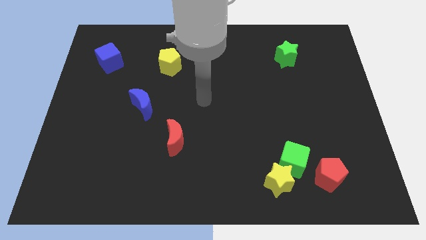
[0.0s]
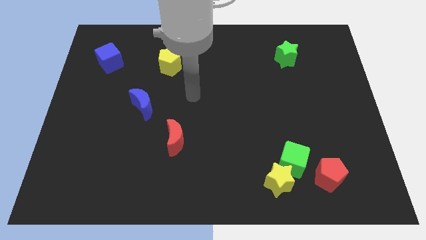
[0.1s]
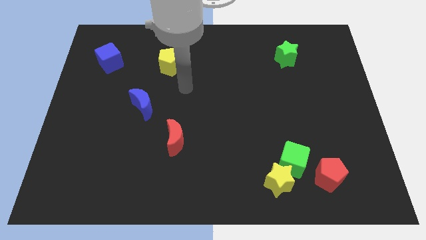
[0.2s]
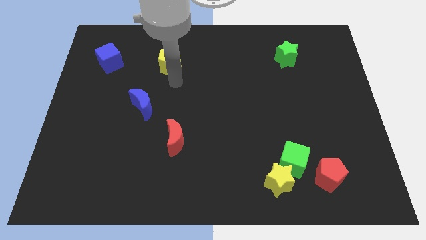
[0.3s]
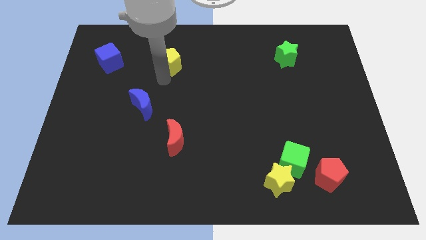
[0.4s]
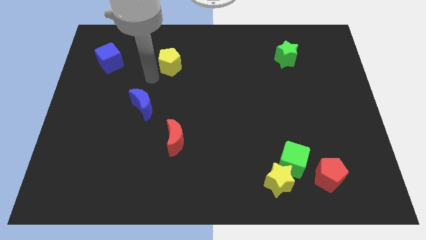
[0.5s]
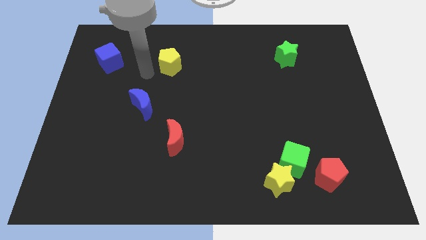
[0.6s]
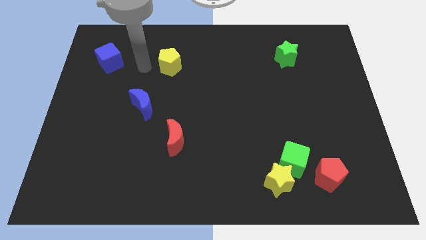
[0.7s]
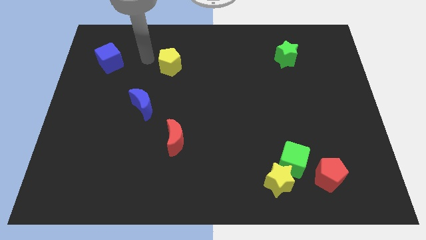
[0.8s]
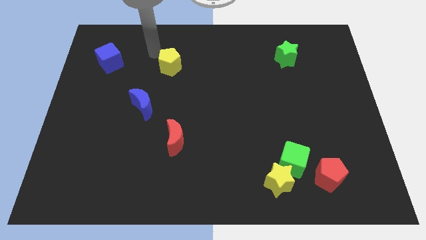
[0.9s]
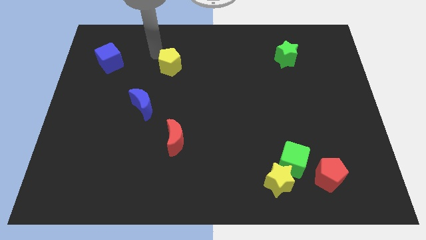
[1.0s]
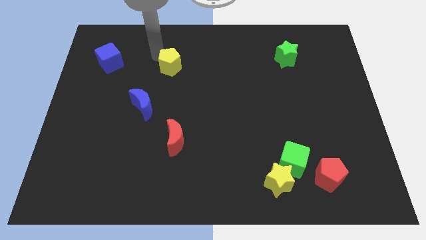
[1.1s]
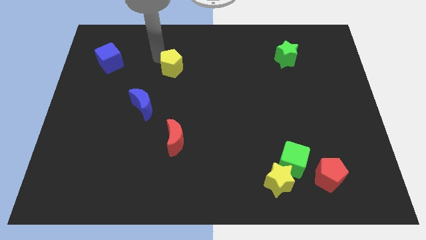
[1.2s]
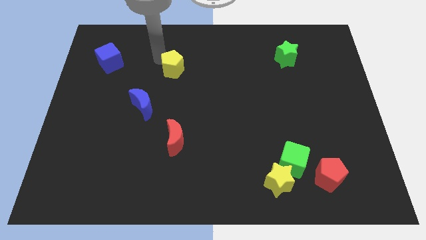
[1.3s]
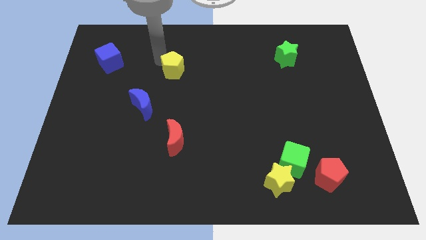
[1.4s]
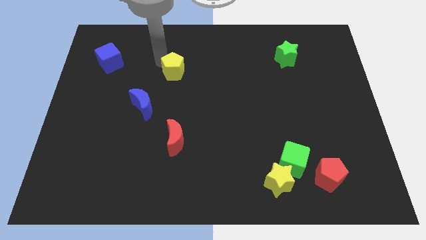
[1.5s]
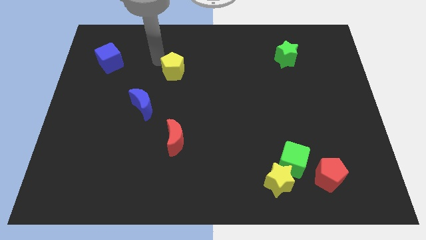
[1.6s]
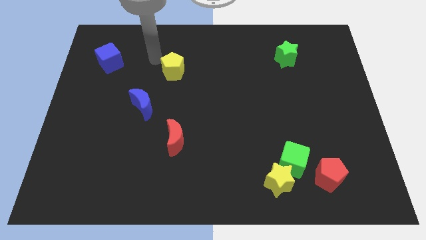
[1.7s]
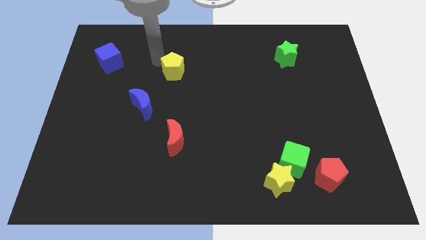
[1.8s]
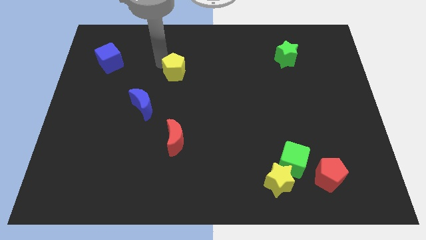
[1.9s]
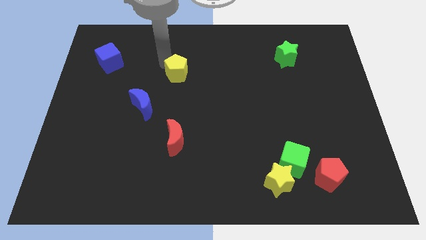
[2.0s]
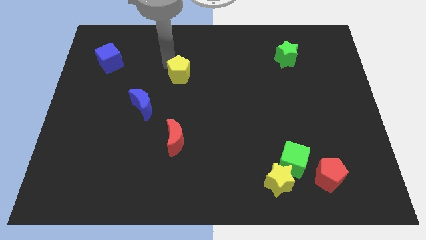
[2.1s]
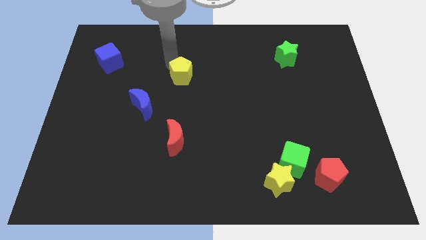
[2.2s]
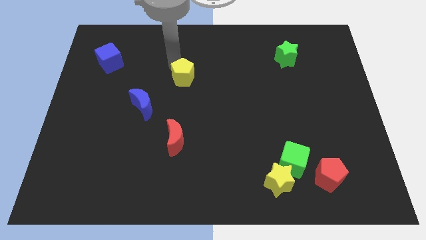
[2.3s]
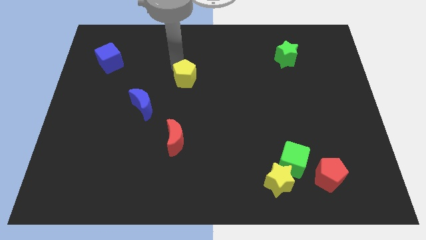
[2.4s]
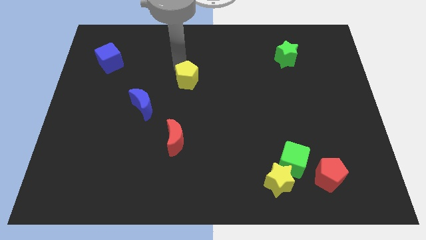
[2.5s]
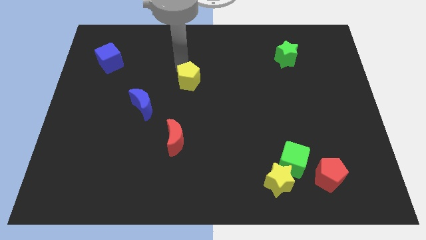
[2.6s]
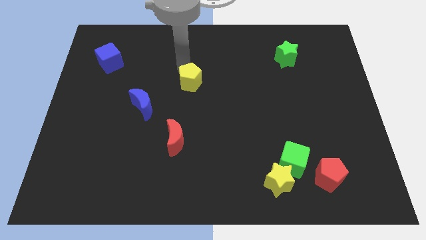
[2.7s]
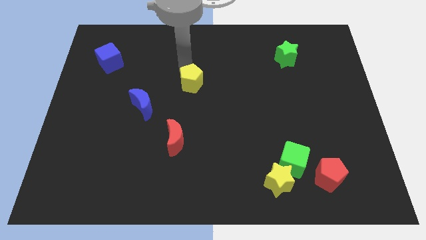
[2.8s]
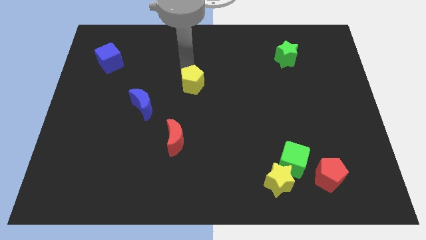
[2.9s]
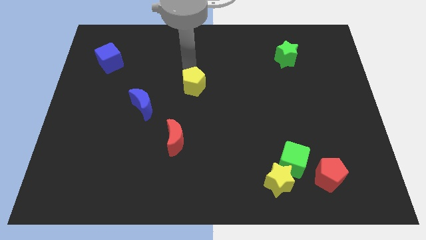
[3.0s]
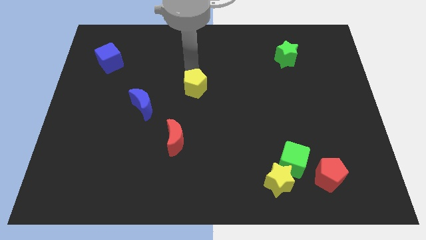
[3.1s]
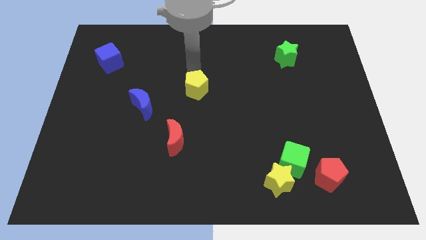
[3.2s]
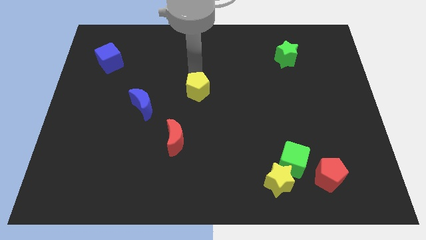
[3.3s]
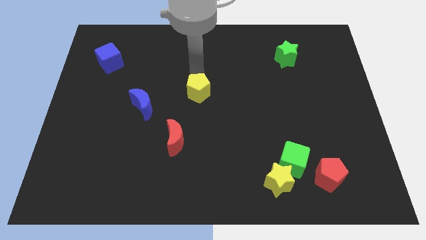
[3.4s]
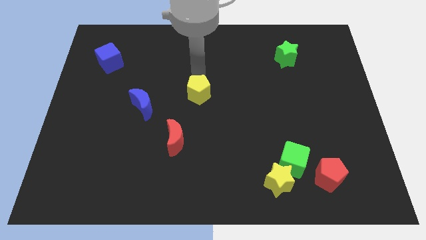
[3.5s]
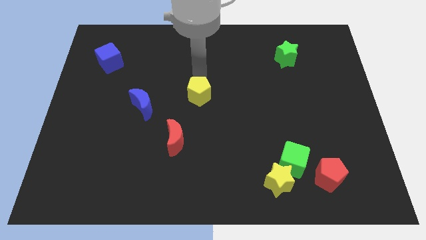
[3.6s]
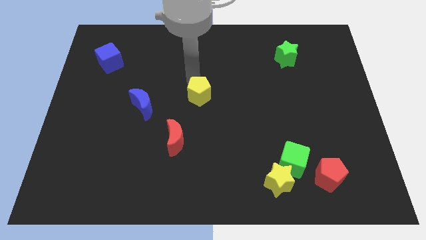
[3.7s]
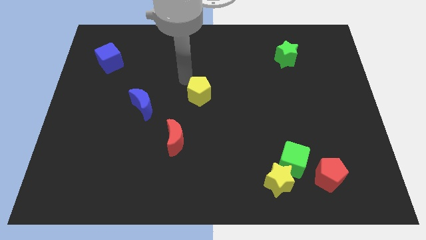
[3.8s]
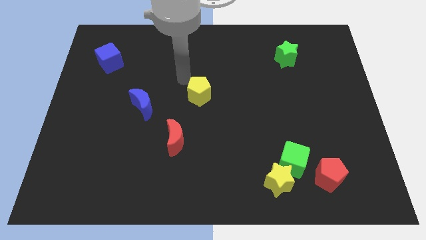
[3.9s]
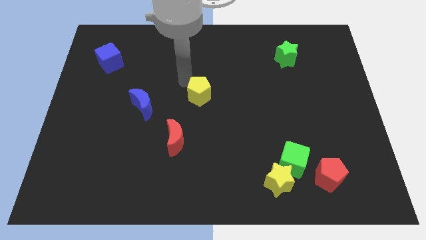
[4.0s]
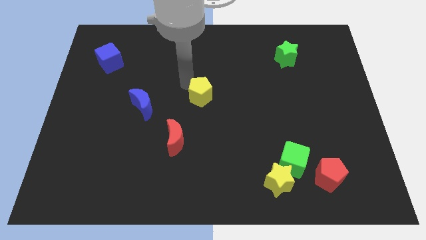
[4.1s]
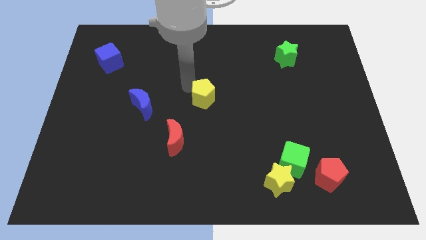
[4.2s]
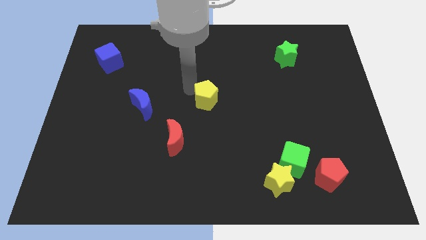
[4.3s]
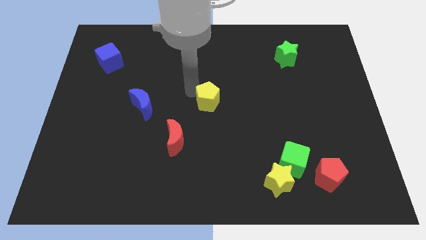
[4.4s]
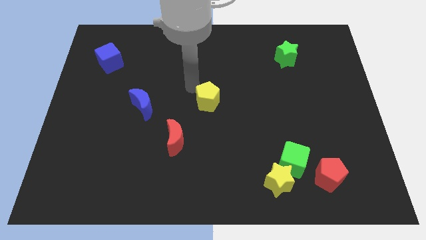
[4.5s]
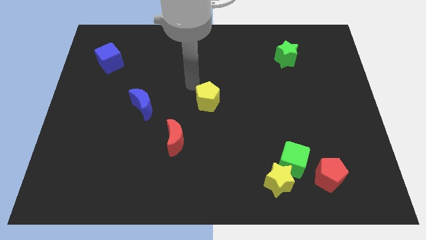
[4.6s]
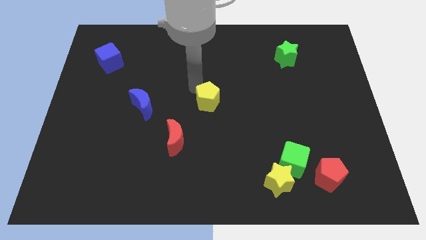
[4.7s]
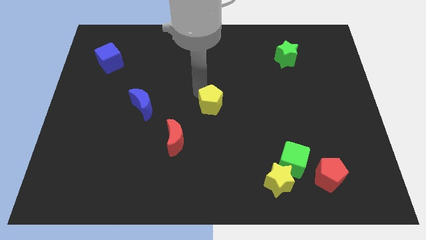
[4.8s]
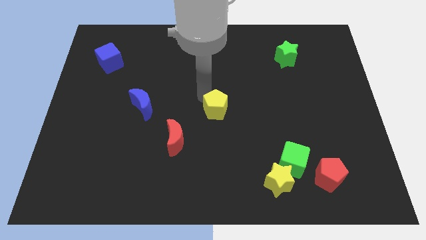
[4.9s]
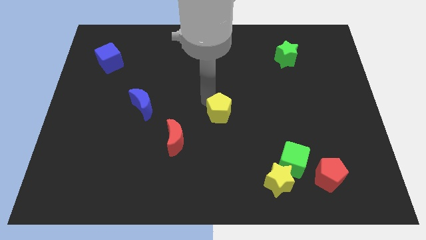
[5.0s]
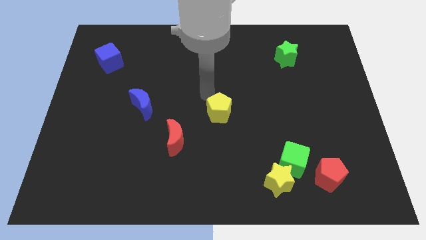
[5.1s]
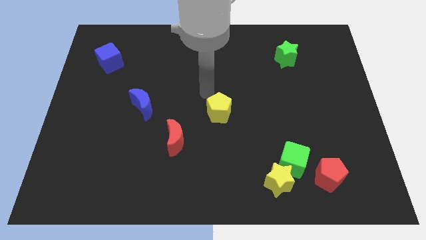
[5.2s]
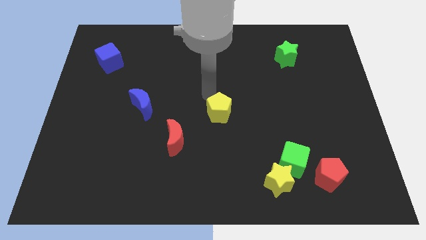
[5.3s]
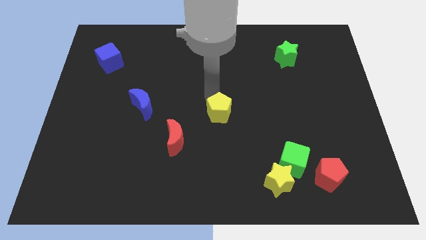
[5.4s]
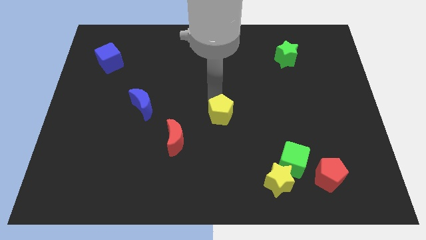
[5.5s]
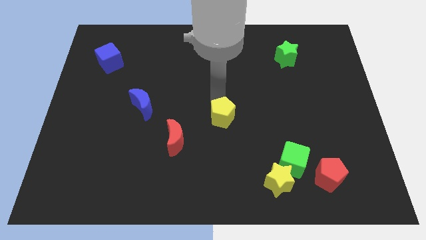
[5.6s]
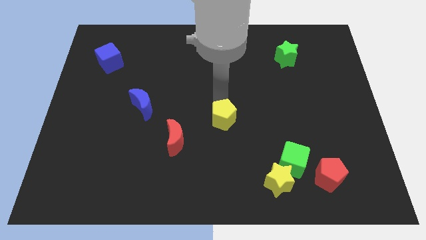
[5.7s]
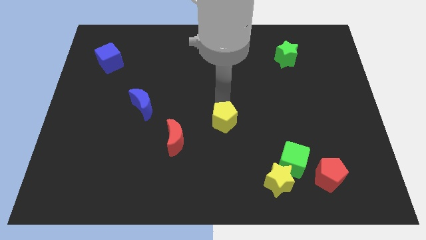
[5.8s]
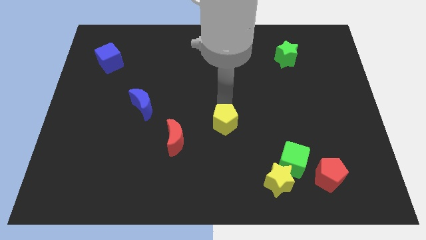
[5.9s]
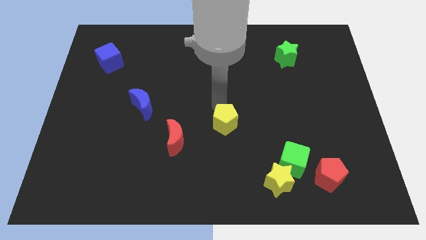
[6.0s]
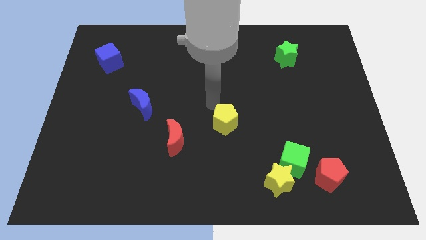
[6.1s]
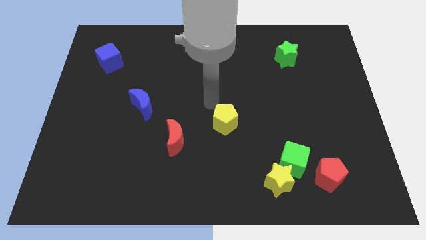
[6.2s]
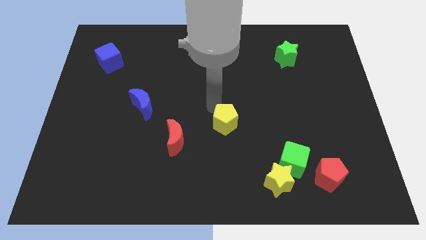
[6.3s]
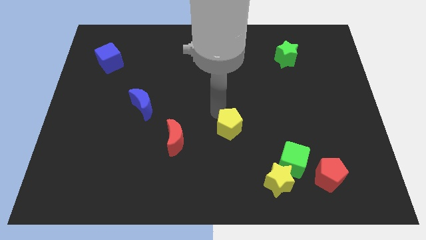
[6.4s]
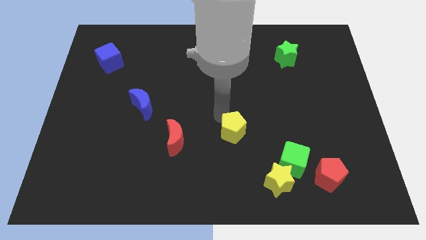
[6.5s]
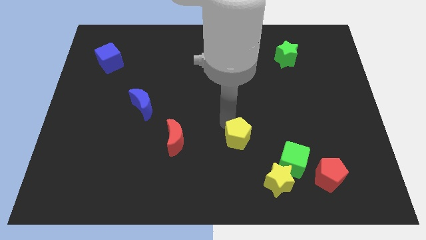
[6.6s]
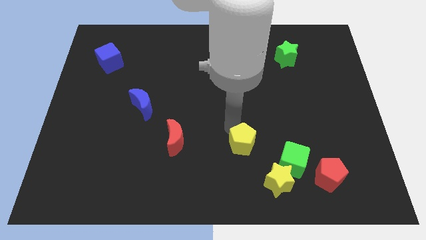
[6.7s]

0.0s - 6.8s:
push the yellow pentagon to the top left side of the yellow star
